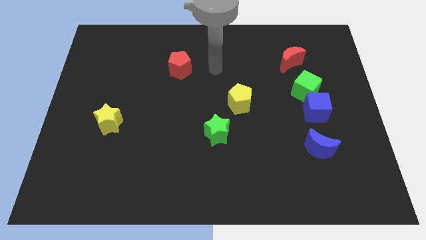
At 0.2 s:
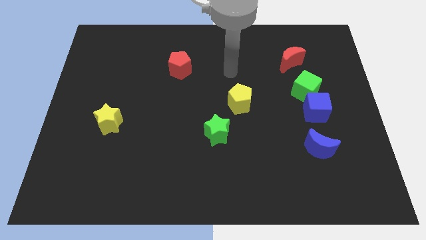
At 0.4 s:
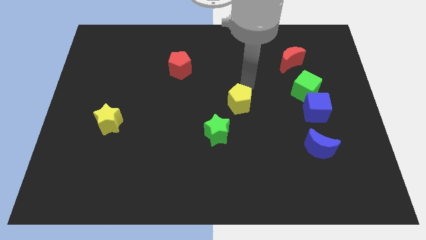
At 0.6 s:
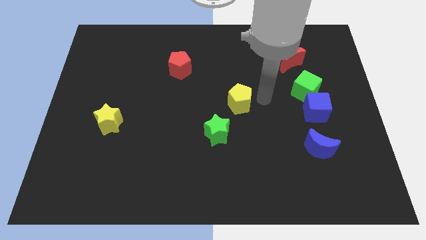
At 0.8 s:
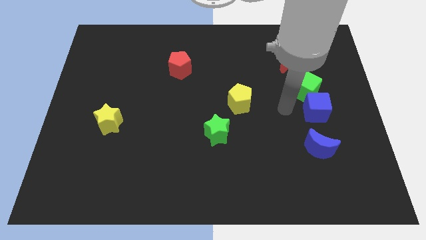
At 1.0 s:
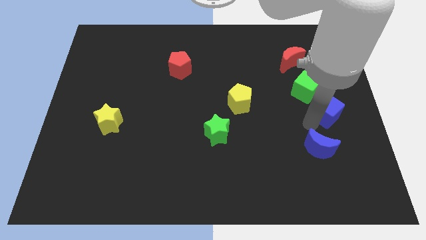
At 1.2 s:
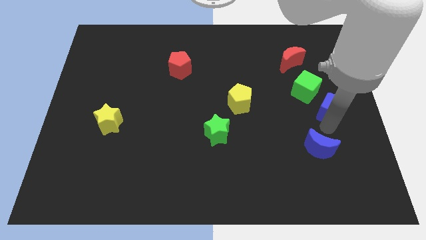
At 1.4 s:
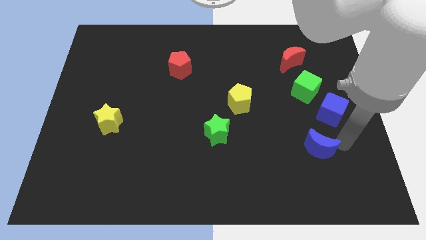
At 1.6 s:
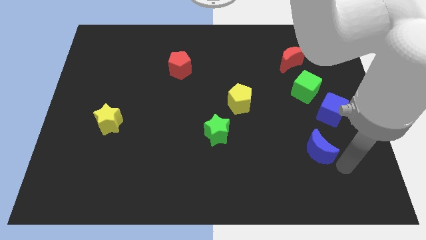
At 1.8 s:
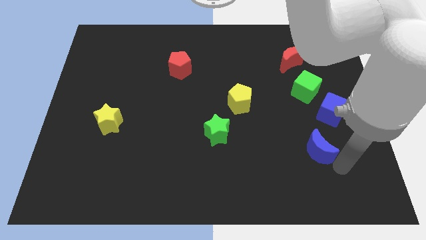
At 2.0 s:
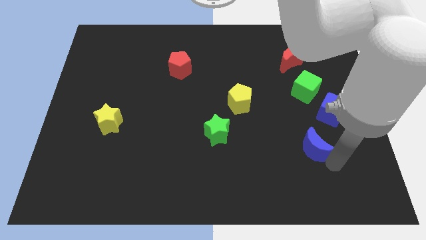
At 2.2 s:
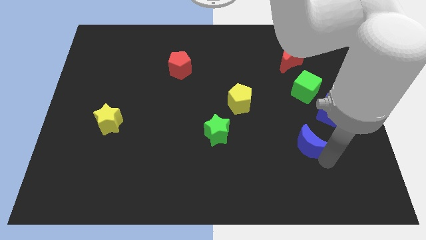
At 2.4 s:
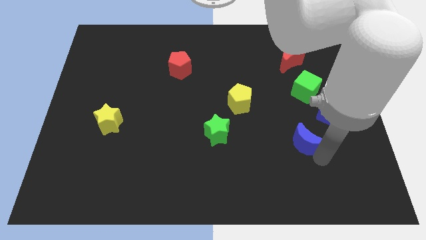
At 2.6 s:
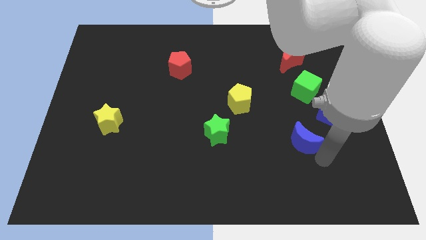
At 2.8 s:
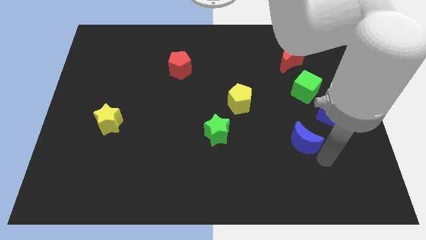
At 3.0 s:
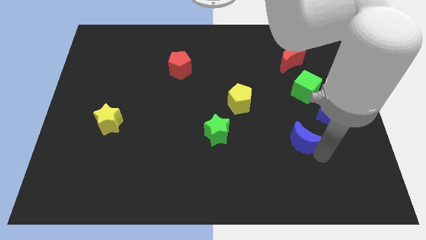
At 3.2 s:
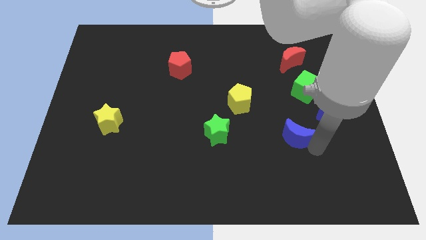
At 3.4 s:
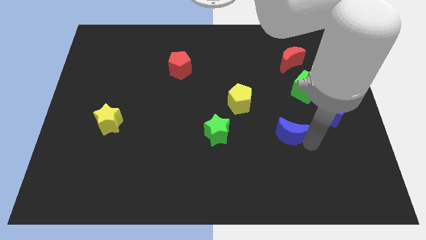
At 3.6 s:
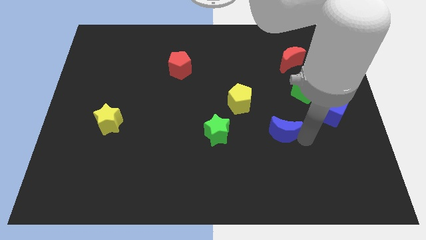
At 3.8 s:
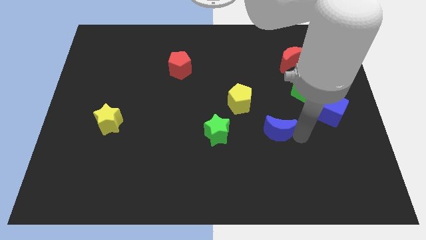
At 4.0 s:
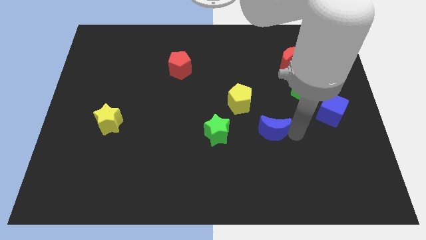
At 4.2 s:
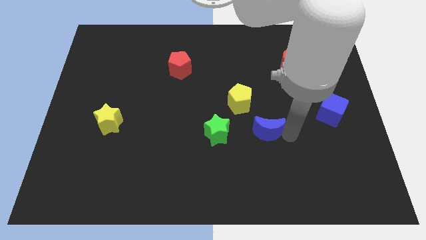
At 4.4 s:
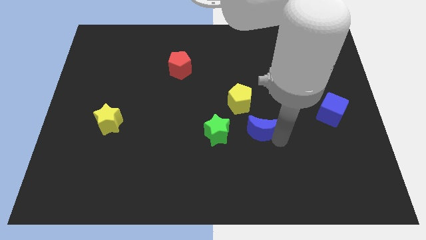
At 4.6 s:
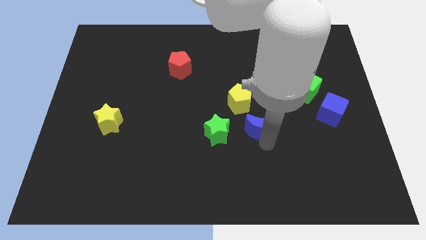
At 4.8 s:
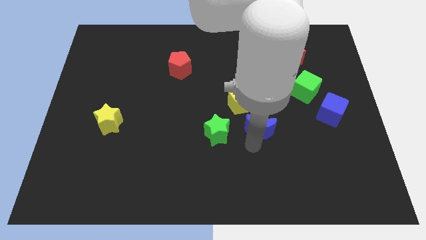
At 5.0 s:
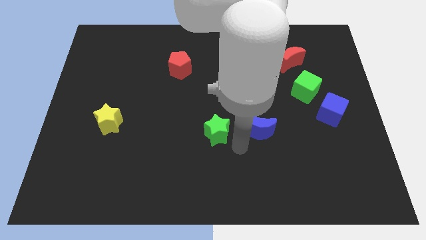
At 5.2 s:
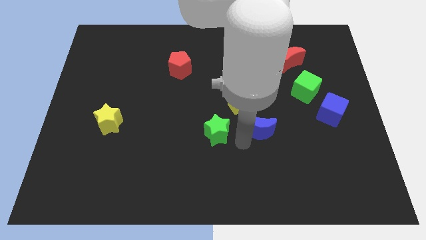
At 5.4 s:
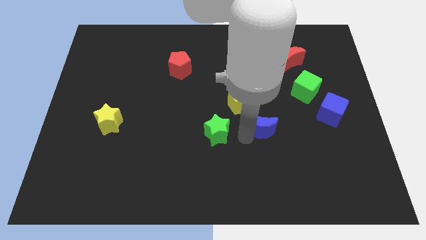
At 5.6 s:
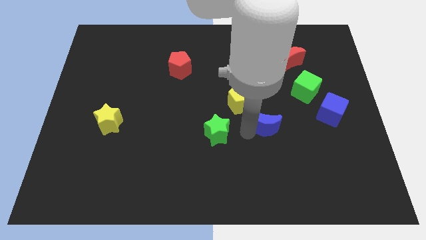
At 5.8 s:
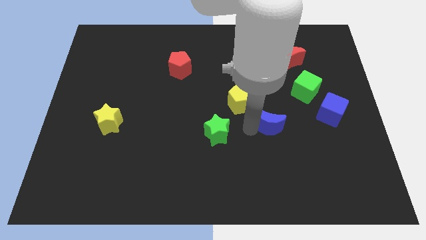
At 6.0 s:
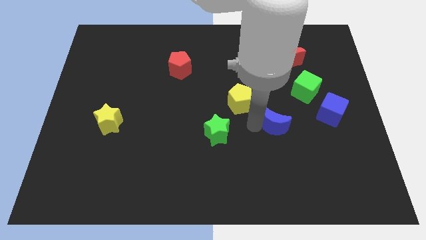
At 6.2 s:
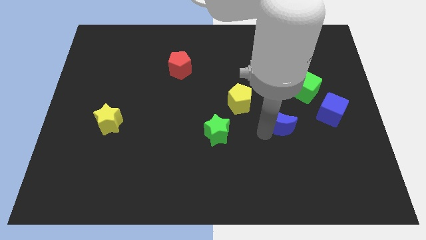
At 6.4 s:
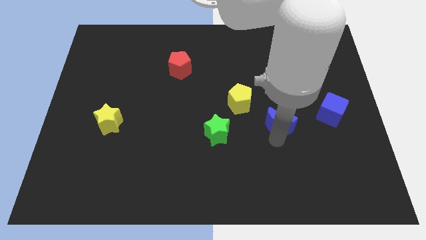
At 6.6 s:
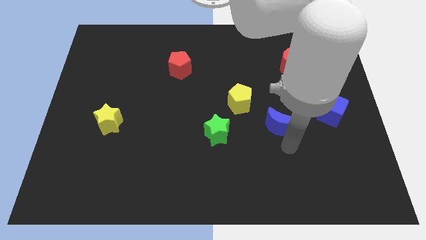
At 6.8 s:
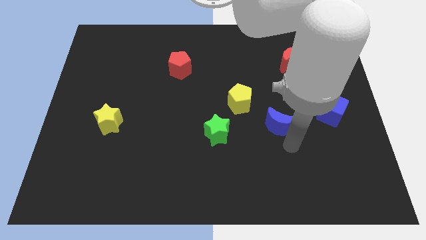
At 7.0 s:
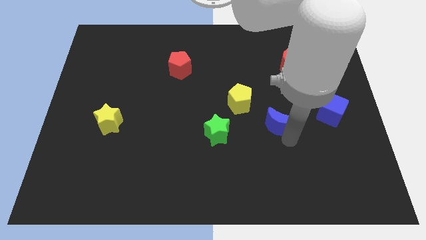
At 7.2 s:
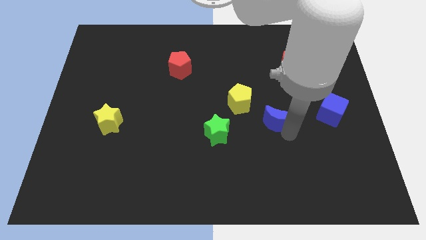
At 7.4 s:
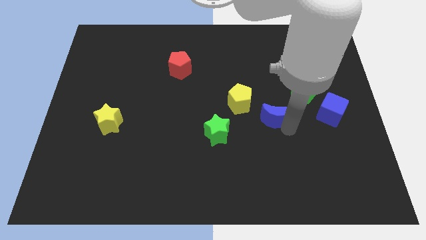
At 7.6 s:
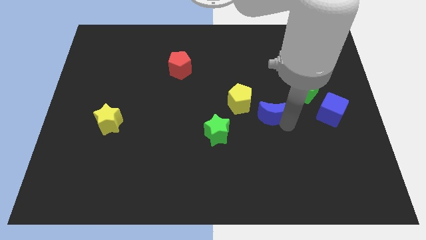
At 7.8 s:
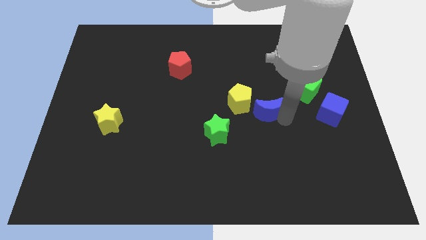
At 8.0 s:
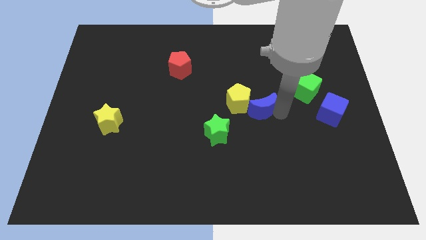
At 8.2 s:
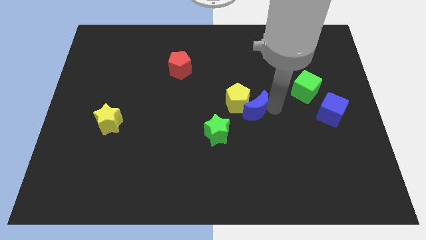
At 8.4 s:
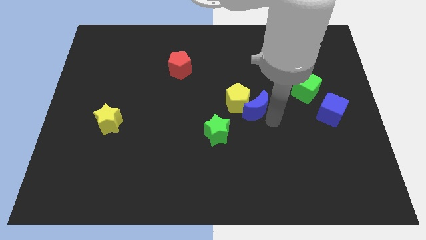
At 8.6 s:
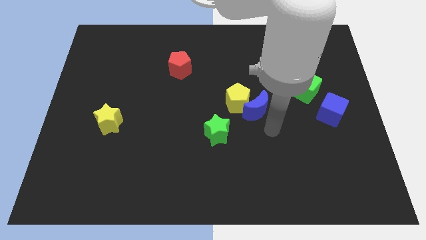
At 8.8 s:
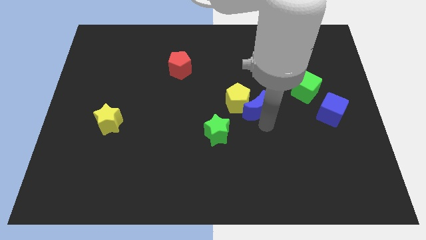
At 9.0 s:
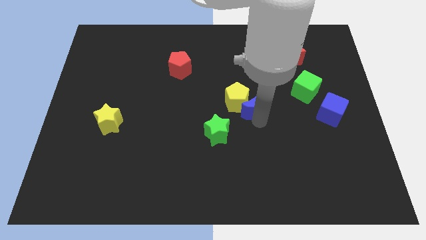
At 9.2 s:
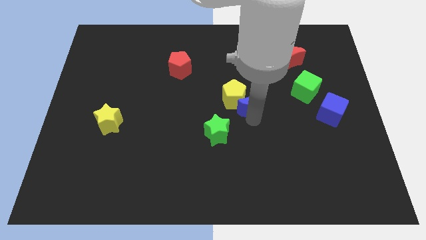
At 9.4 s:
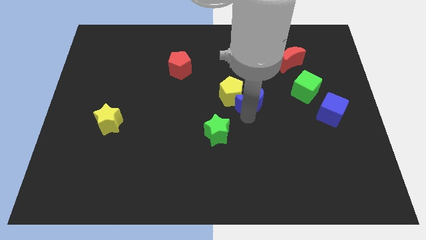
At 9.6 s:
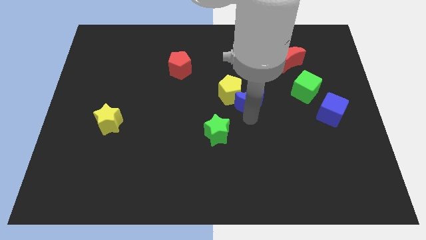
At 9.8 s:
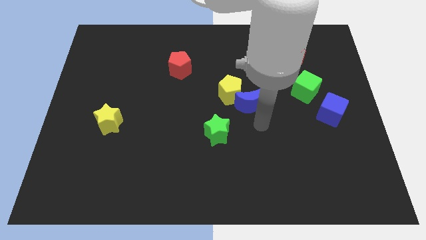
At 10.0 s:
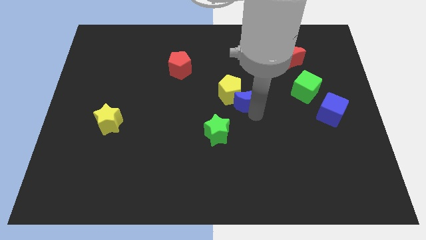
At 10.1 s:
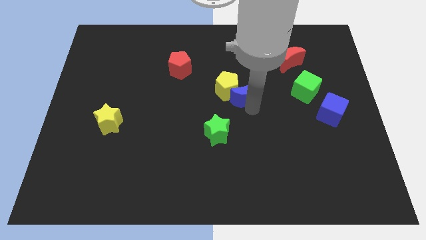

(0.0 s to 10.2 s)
slide the blue moon diagonally upwards and to the left

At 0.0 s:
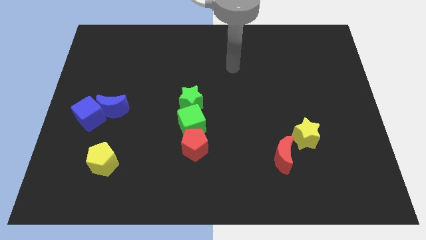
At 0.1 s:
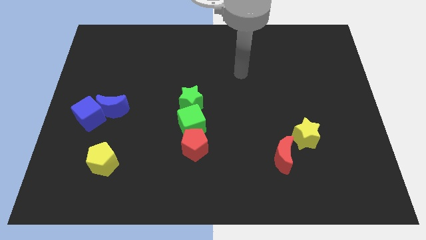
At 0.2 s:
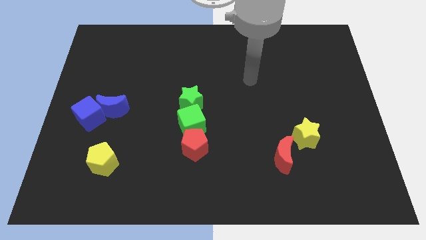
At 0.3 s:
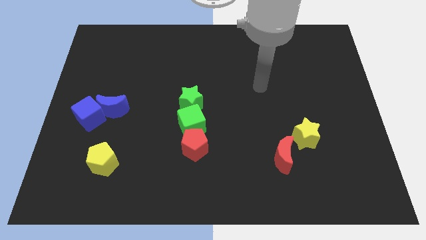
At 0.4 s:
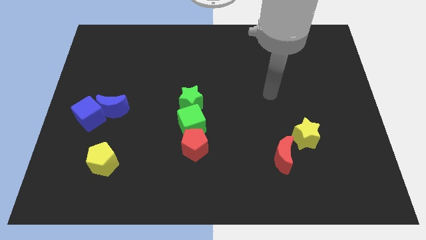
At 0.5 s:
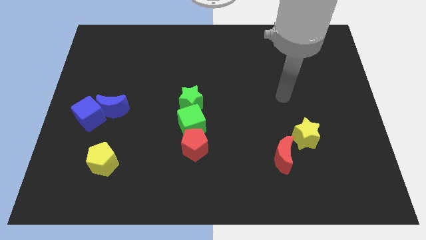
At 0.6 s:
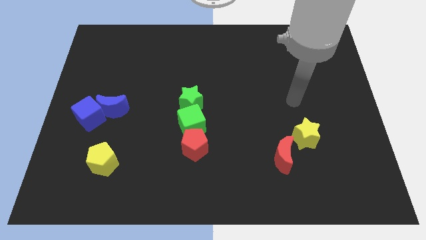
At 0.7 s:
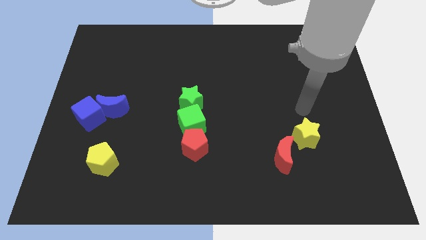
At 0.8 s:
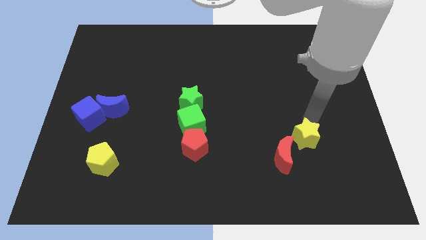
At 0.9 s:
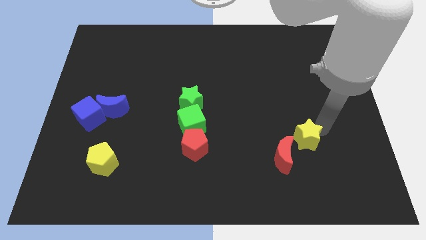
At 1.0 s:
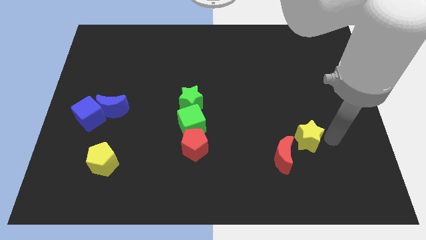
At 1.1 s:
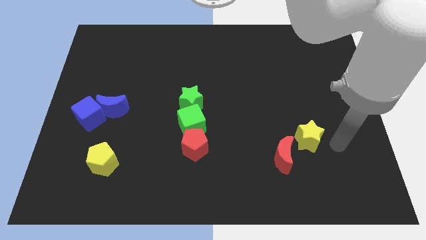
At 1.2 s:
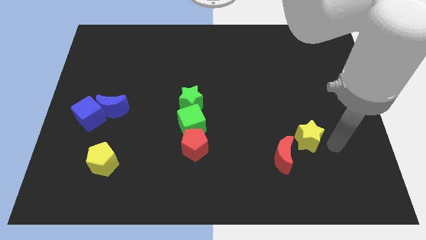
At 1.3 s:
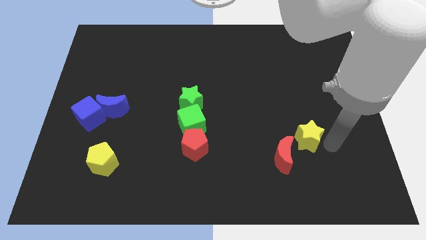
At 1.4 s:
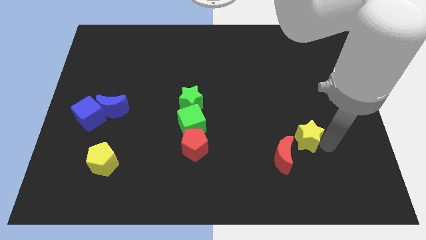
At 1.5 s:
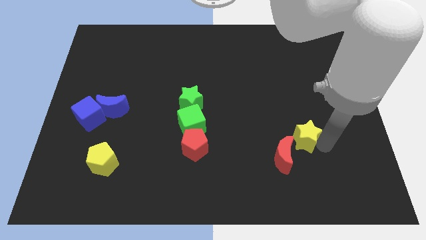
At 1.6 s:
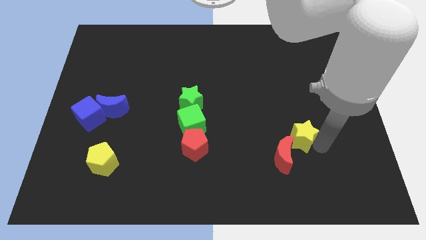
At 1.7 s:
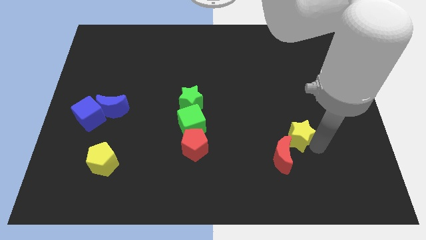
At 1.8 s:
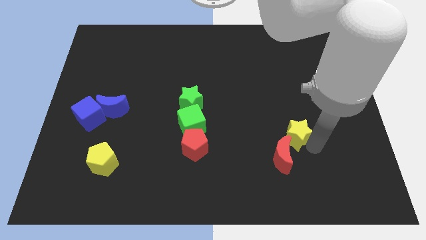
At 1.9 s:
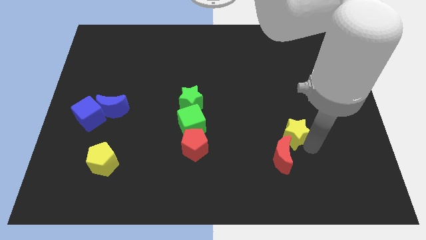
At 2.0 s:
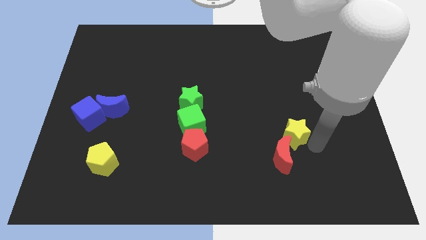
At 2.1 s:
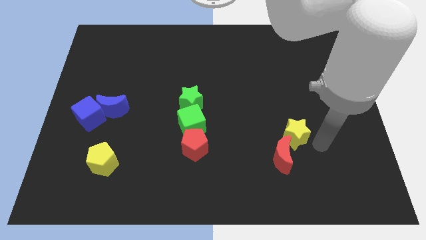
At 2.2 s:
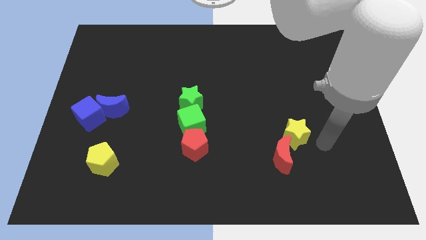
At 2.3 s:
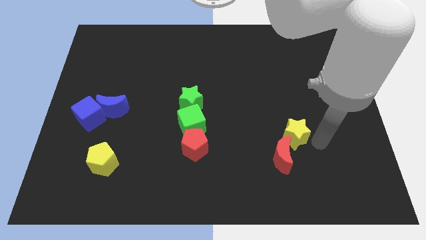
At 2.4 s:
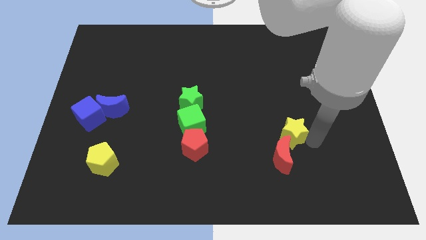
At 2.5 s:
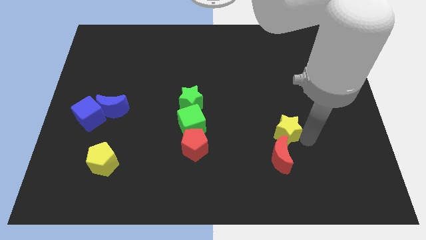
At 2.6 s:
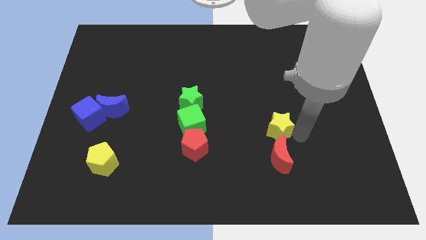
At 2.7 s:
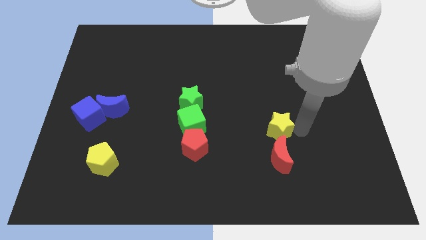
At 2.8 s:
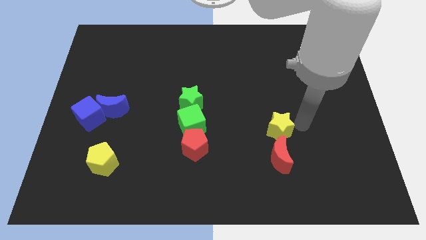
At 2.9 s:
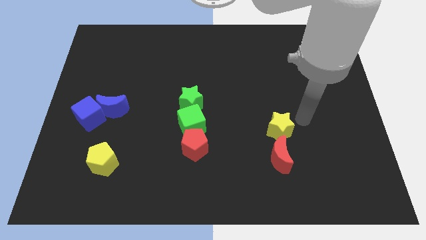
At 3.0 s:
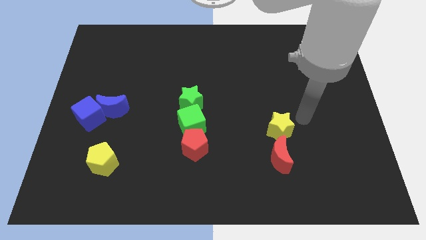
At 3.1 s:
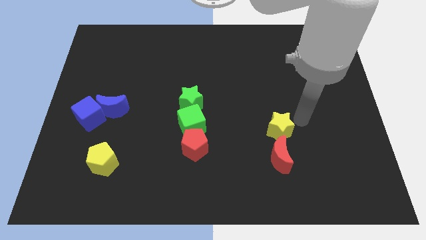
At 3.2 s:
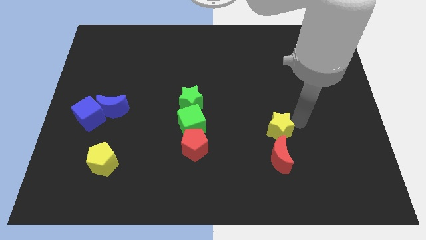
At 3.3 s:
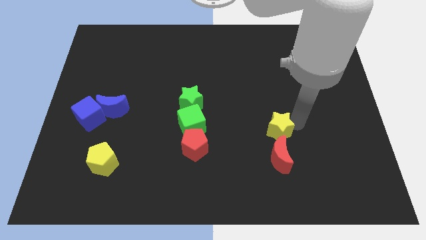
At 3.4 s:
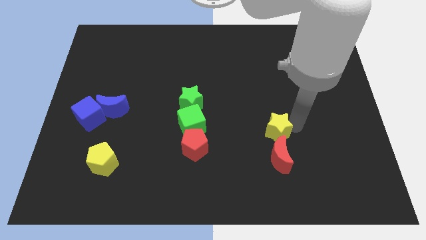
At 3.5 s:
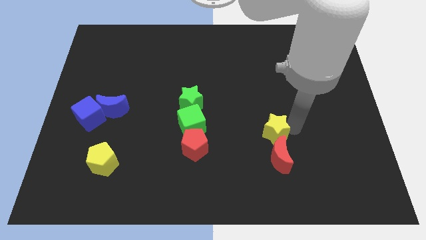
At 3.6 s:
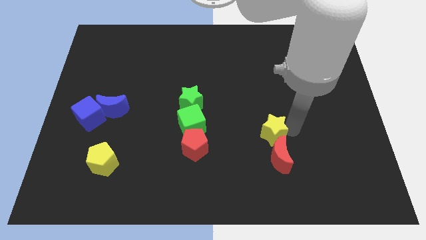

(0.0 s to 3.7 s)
move the yellow star left somewhat
